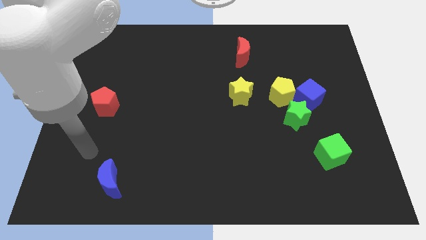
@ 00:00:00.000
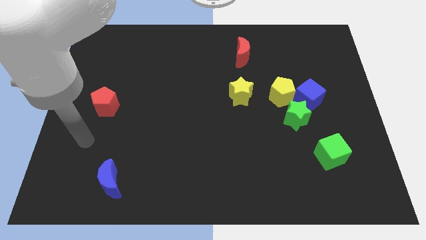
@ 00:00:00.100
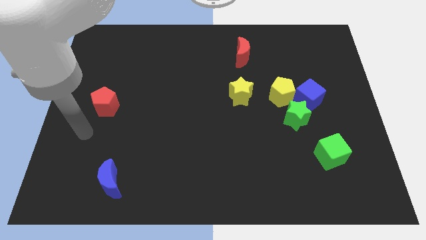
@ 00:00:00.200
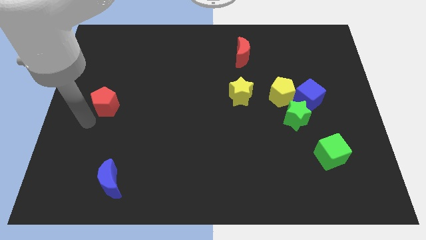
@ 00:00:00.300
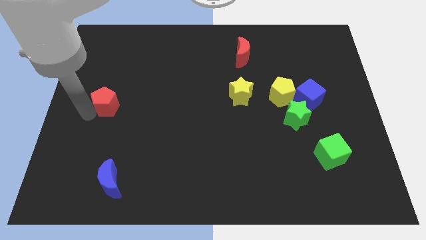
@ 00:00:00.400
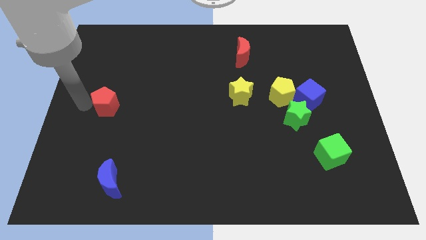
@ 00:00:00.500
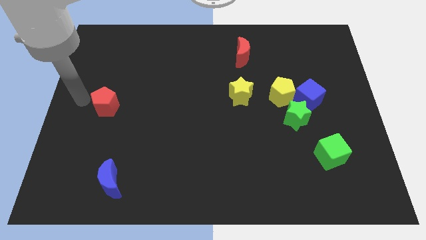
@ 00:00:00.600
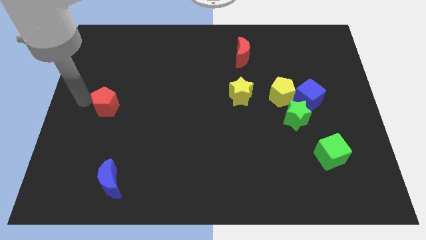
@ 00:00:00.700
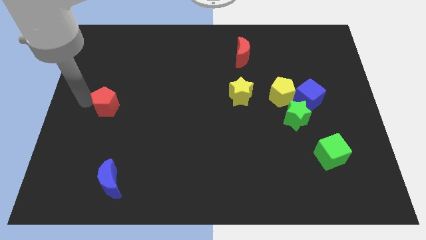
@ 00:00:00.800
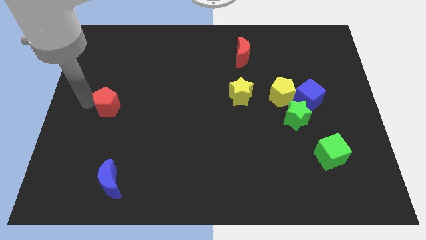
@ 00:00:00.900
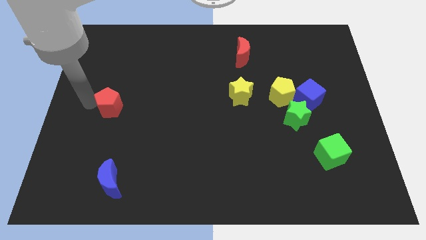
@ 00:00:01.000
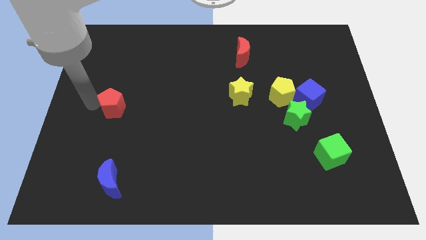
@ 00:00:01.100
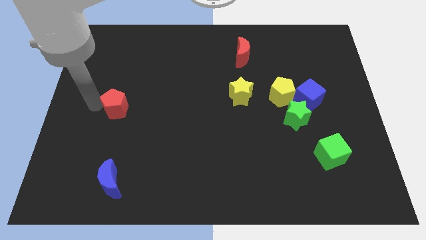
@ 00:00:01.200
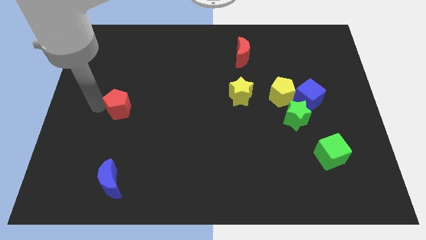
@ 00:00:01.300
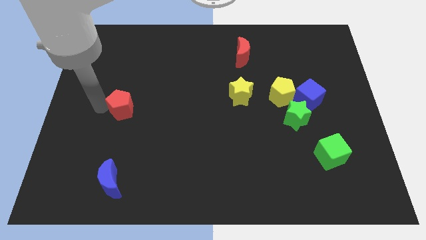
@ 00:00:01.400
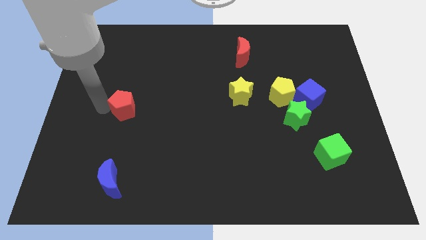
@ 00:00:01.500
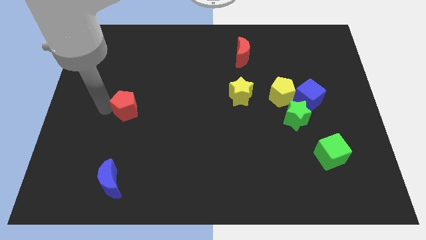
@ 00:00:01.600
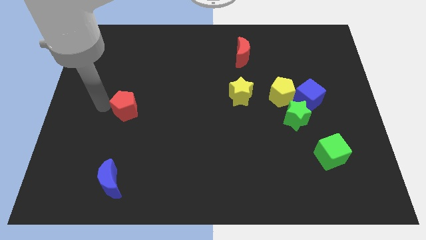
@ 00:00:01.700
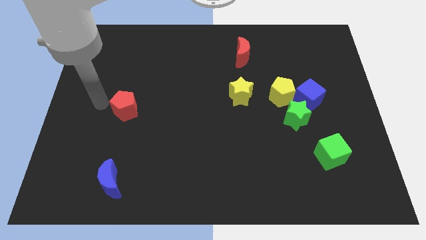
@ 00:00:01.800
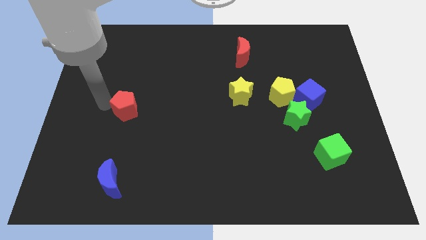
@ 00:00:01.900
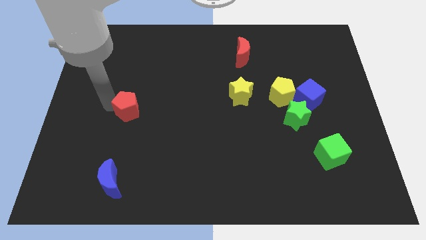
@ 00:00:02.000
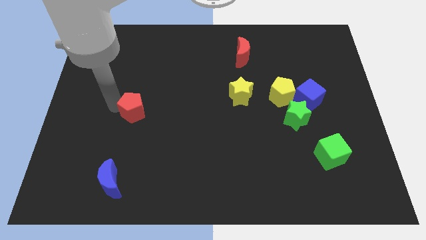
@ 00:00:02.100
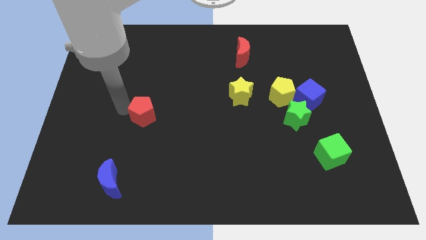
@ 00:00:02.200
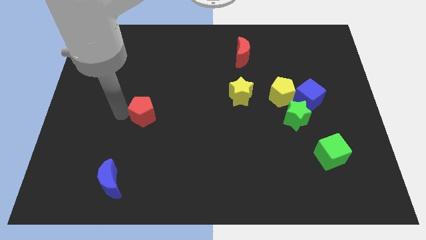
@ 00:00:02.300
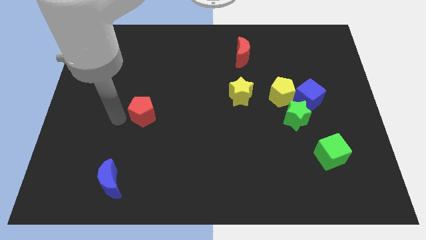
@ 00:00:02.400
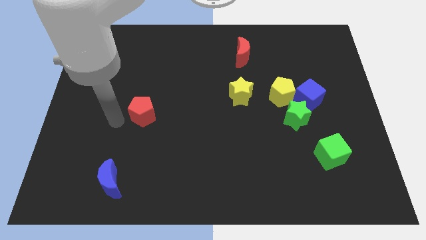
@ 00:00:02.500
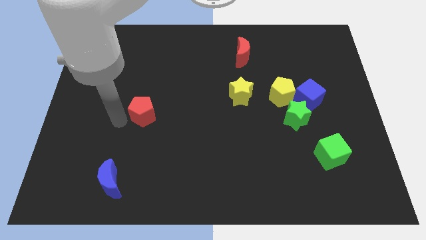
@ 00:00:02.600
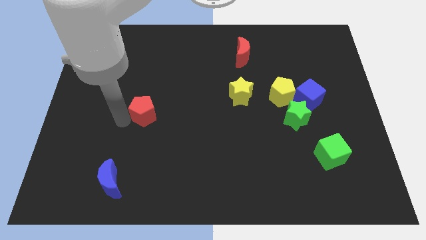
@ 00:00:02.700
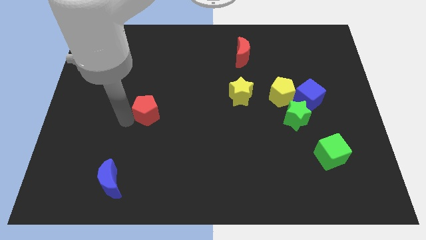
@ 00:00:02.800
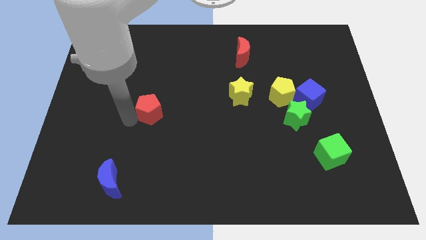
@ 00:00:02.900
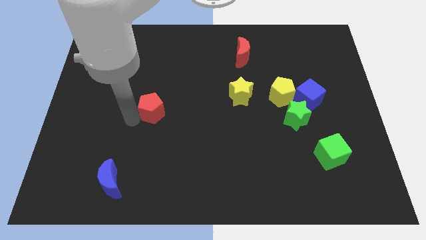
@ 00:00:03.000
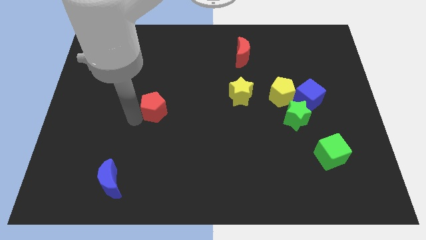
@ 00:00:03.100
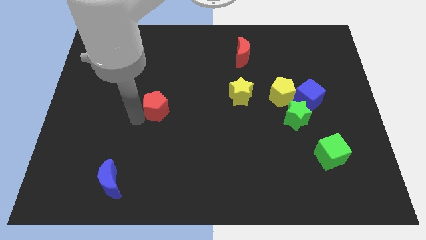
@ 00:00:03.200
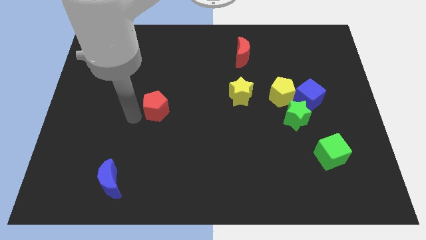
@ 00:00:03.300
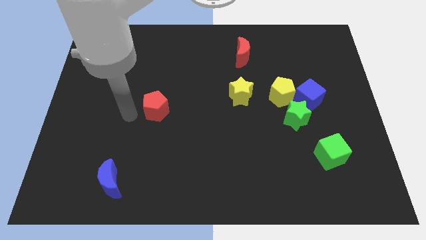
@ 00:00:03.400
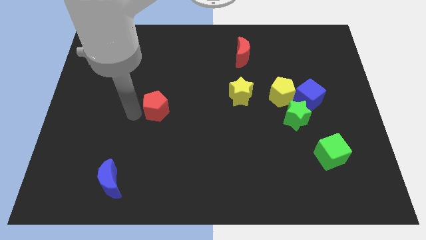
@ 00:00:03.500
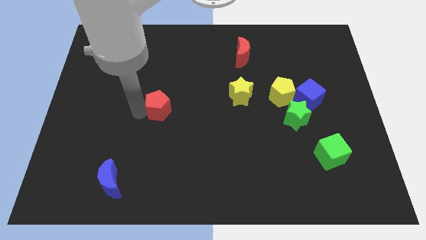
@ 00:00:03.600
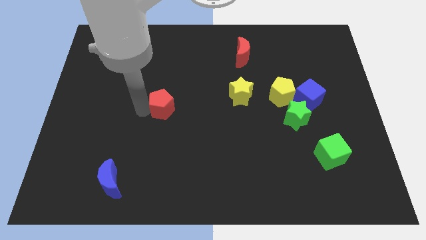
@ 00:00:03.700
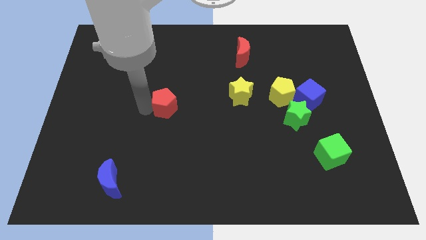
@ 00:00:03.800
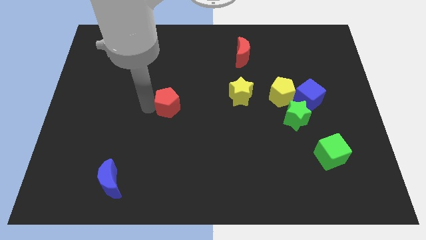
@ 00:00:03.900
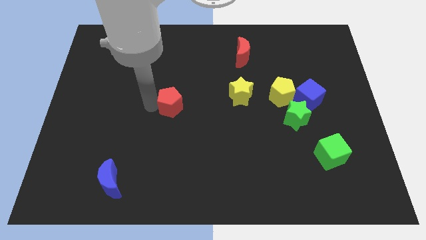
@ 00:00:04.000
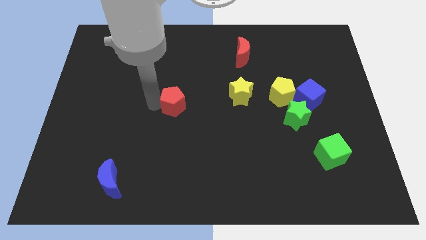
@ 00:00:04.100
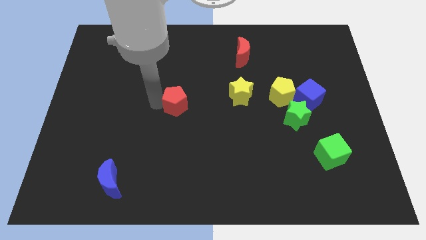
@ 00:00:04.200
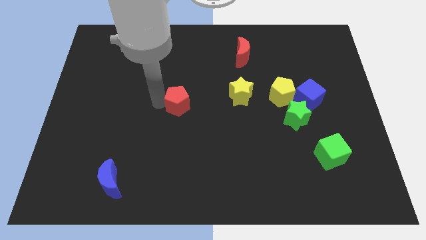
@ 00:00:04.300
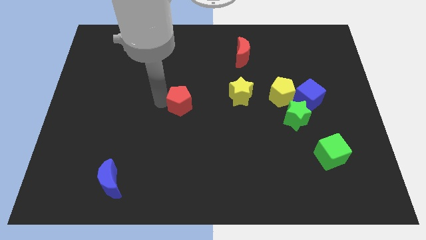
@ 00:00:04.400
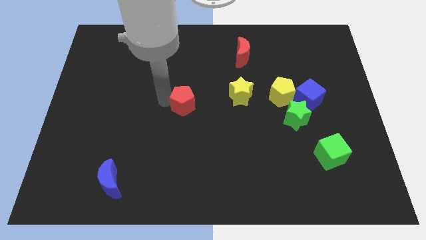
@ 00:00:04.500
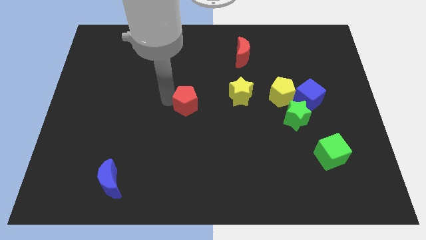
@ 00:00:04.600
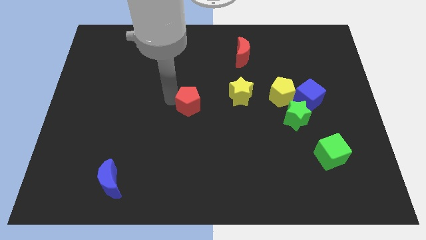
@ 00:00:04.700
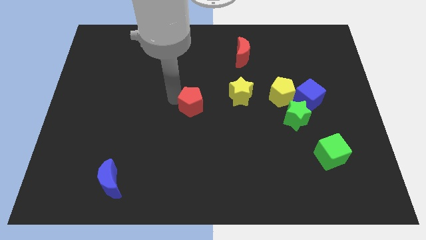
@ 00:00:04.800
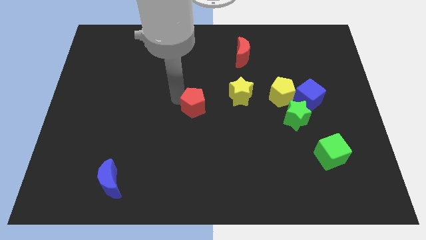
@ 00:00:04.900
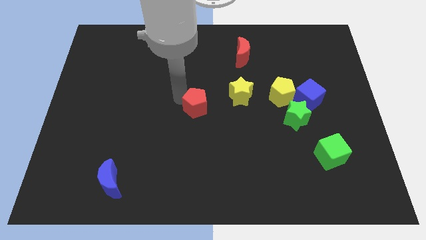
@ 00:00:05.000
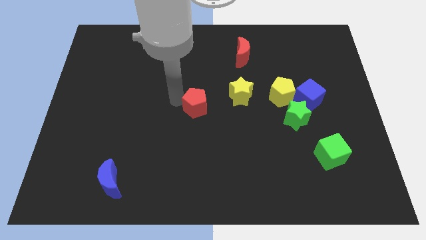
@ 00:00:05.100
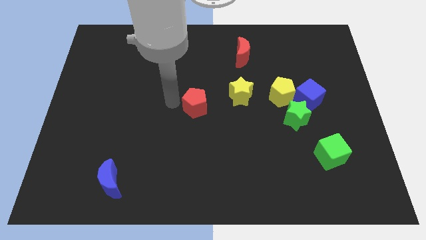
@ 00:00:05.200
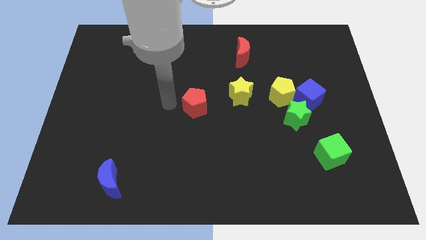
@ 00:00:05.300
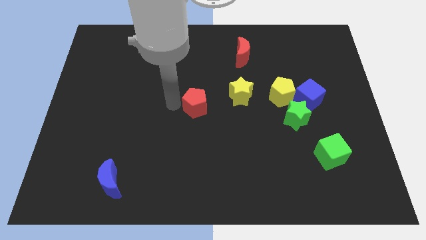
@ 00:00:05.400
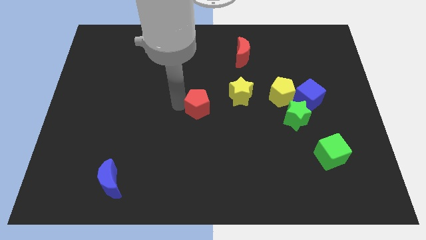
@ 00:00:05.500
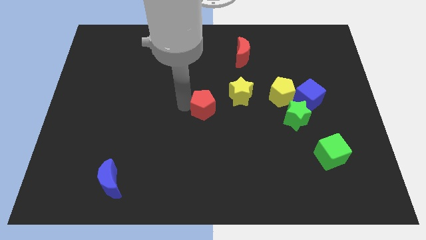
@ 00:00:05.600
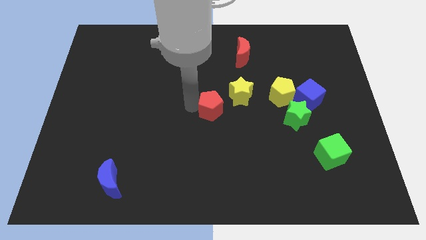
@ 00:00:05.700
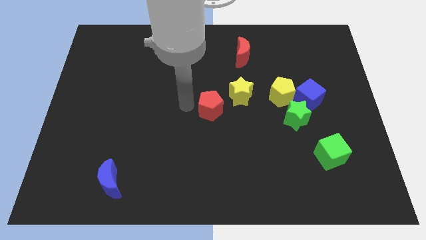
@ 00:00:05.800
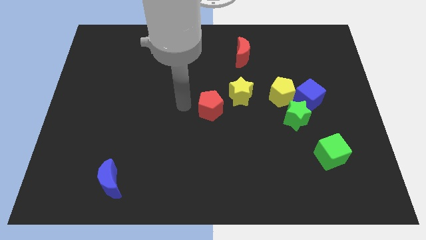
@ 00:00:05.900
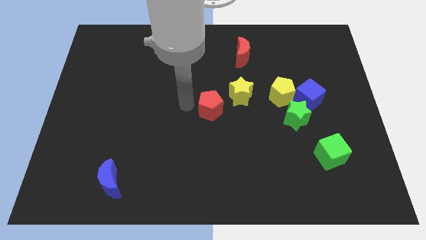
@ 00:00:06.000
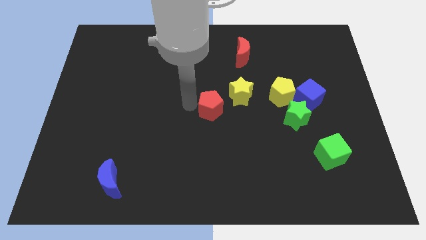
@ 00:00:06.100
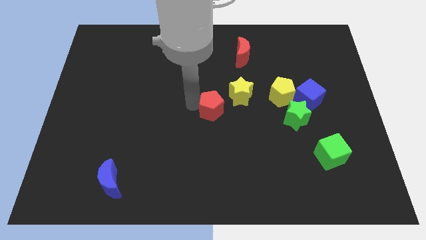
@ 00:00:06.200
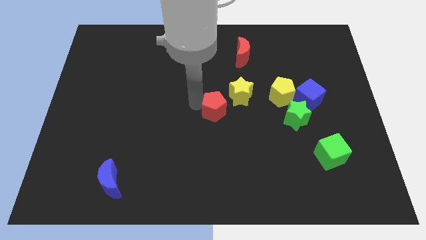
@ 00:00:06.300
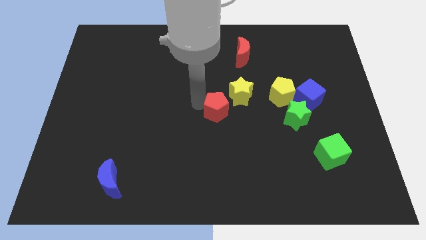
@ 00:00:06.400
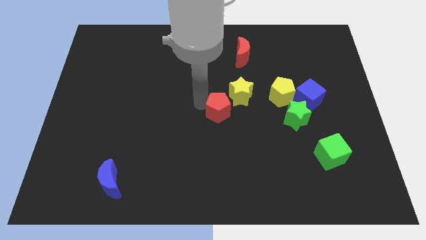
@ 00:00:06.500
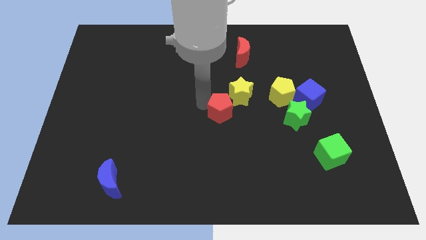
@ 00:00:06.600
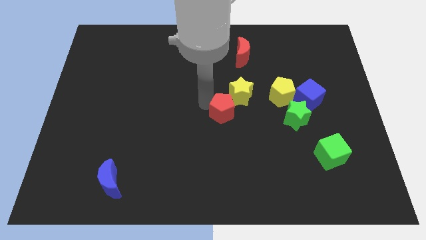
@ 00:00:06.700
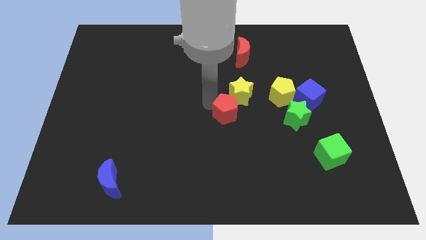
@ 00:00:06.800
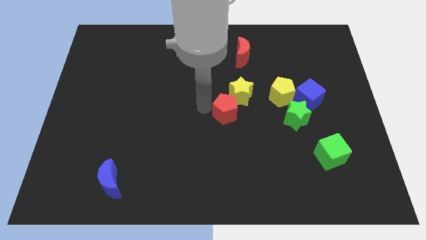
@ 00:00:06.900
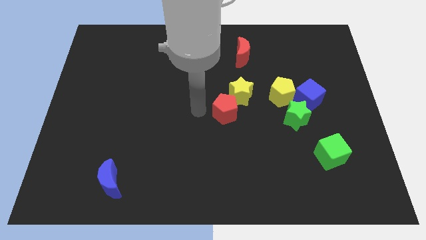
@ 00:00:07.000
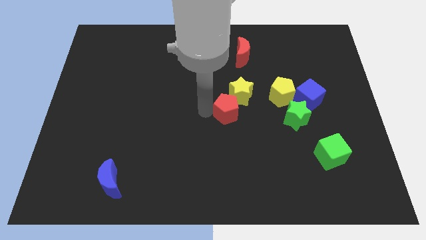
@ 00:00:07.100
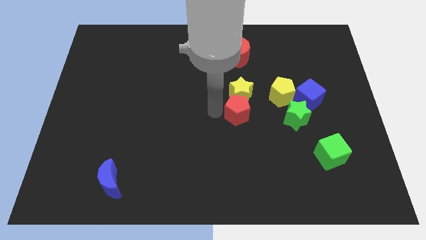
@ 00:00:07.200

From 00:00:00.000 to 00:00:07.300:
move the red pentagon diagonally down and to the left of the yellow pentagon

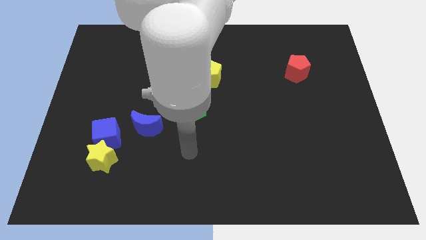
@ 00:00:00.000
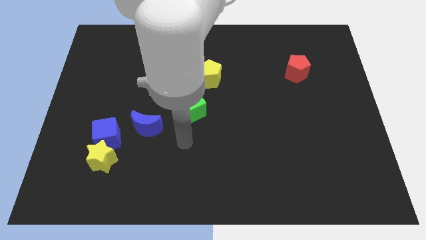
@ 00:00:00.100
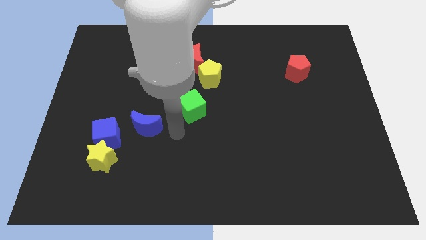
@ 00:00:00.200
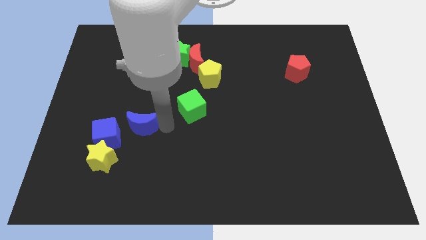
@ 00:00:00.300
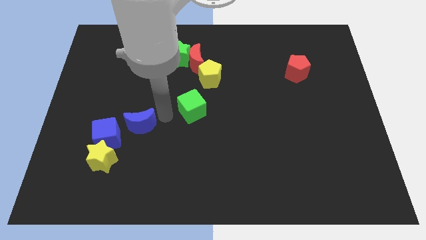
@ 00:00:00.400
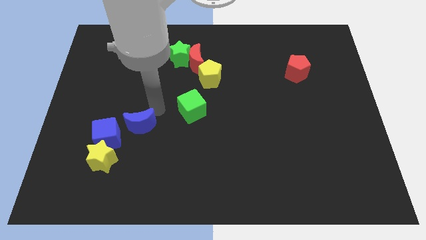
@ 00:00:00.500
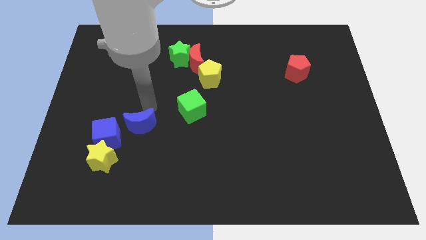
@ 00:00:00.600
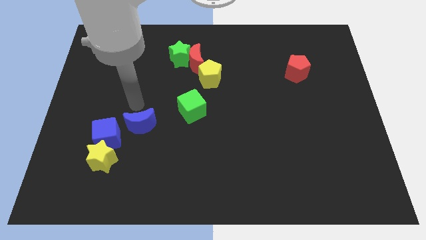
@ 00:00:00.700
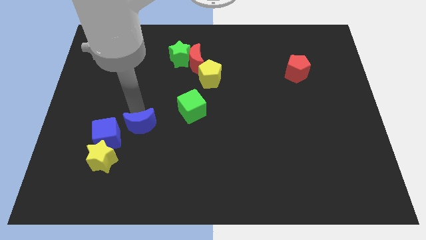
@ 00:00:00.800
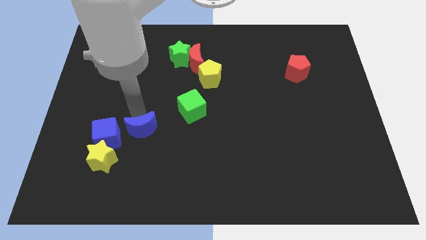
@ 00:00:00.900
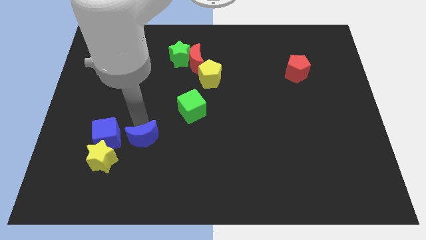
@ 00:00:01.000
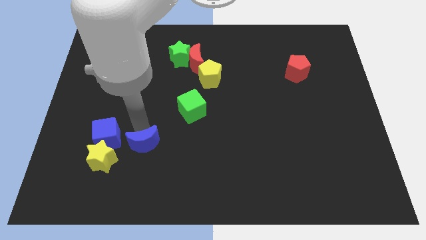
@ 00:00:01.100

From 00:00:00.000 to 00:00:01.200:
slide the blue moon just right of the yellow star
